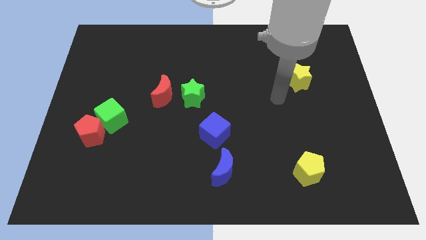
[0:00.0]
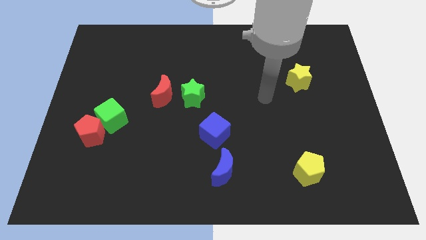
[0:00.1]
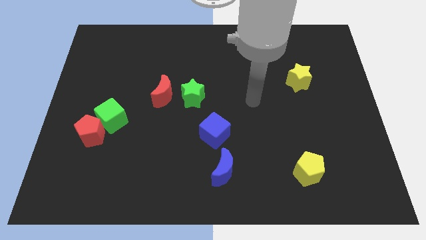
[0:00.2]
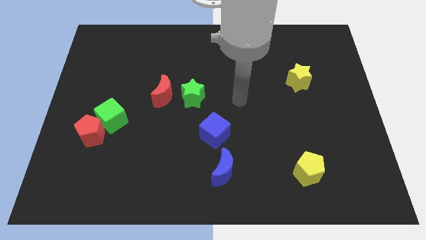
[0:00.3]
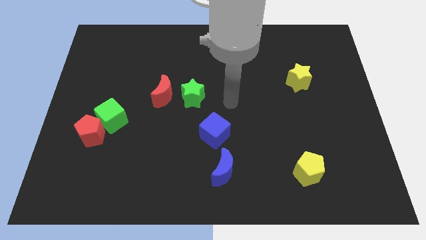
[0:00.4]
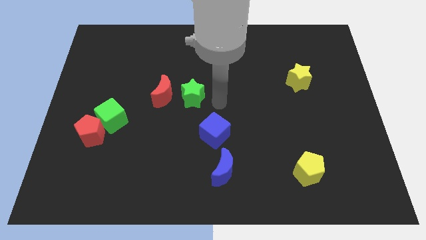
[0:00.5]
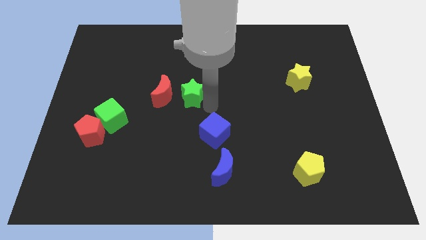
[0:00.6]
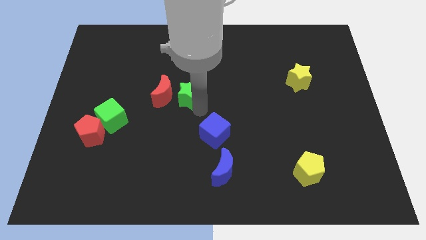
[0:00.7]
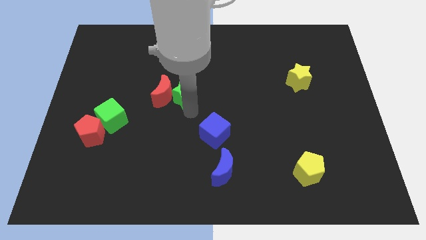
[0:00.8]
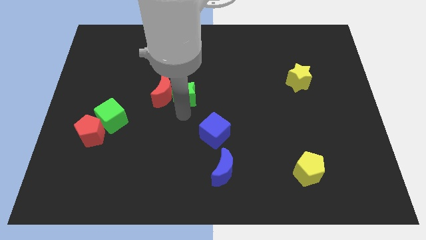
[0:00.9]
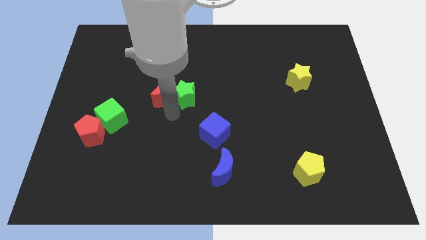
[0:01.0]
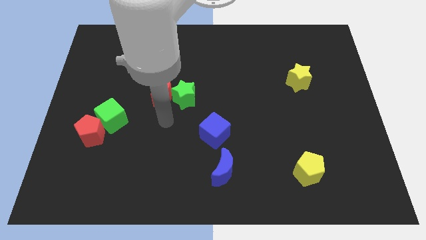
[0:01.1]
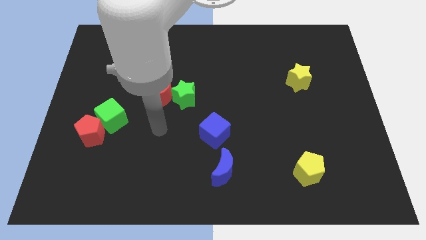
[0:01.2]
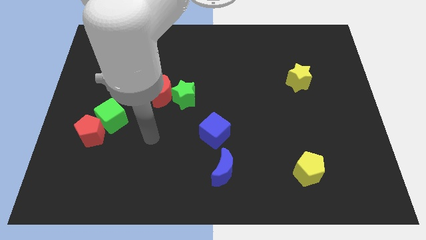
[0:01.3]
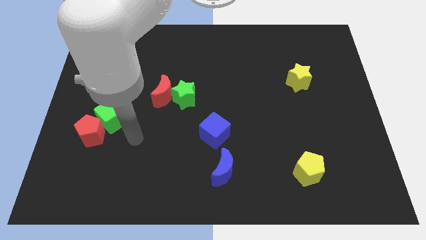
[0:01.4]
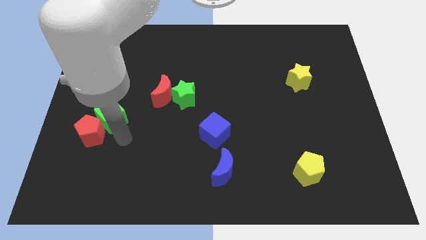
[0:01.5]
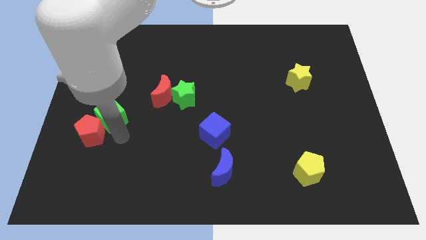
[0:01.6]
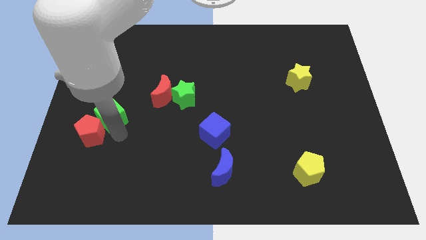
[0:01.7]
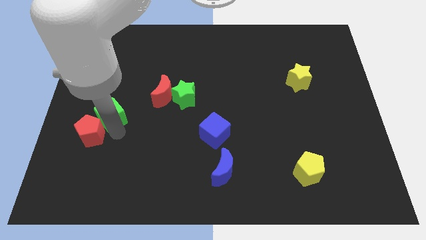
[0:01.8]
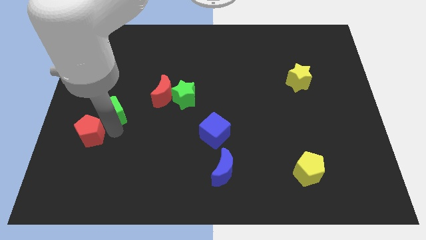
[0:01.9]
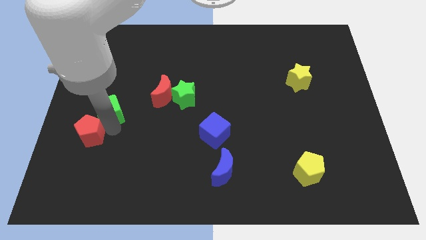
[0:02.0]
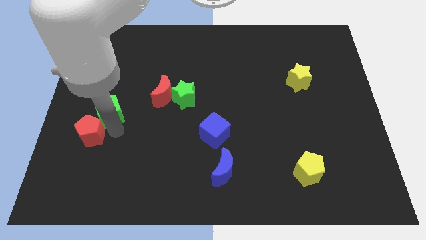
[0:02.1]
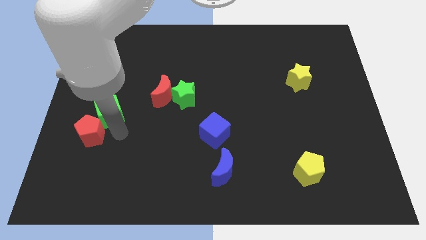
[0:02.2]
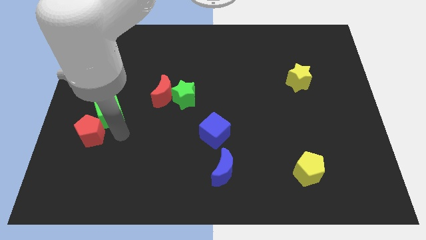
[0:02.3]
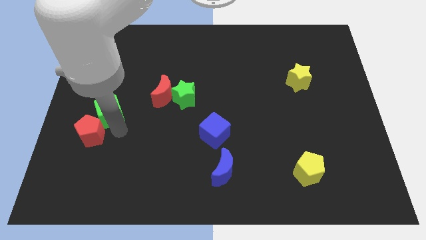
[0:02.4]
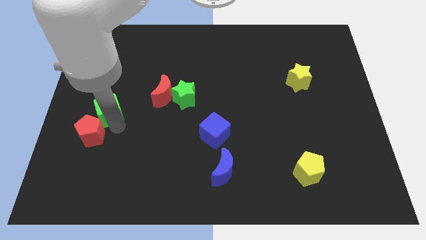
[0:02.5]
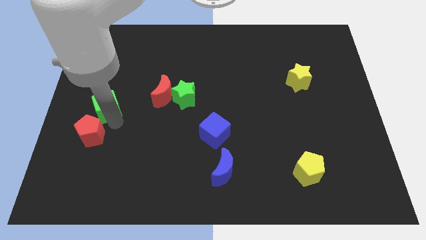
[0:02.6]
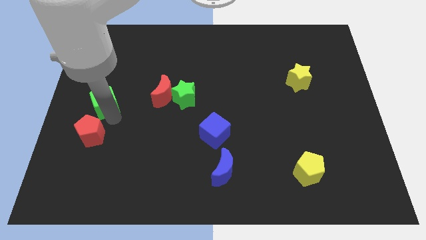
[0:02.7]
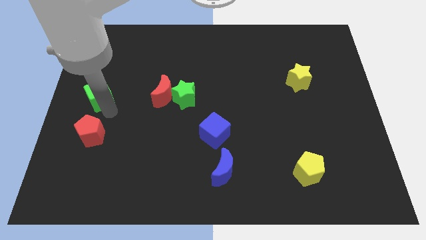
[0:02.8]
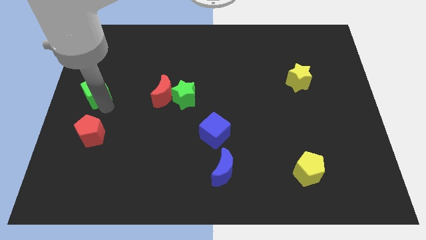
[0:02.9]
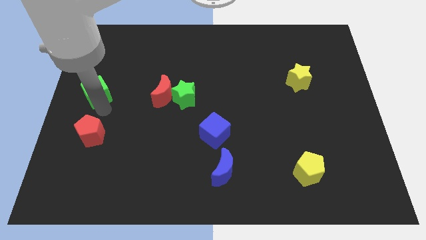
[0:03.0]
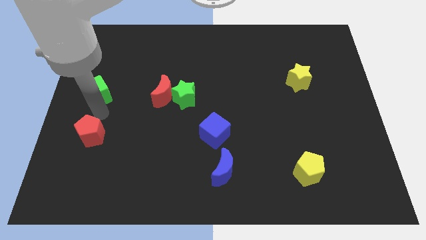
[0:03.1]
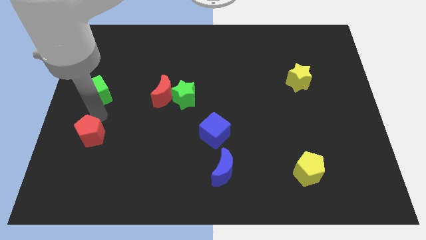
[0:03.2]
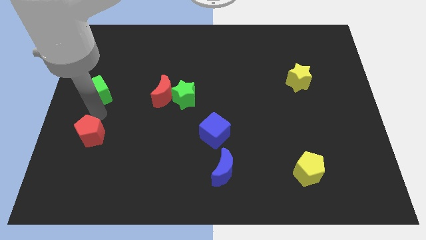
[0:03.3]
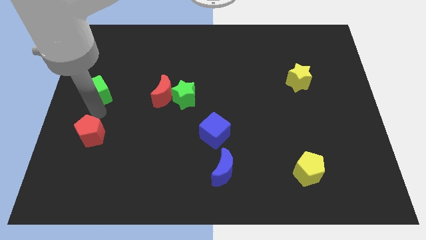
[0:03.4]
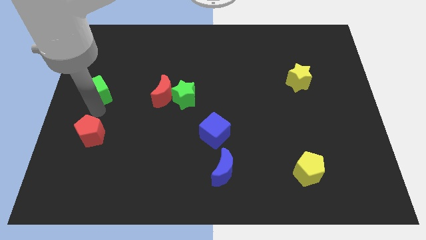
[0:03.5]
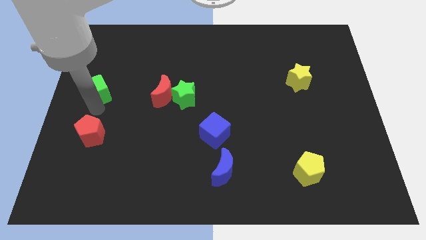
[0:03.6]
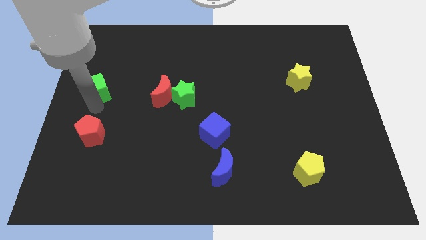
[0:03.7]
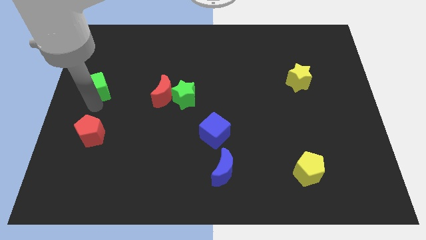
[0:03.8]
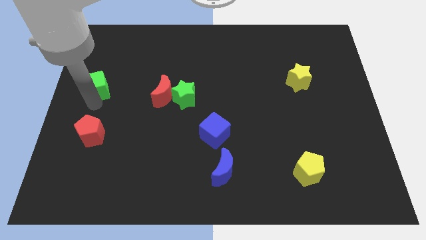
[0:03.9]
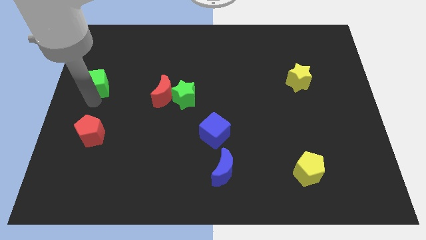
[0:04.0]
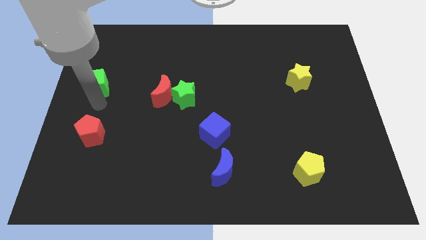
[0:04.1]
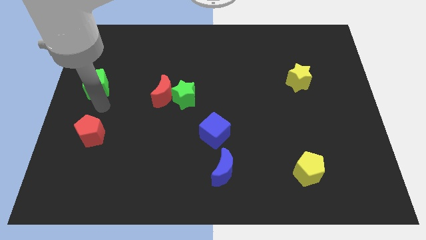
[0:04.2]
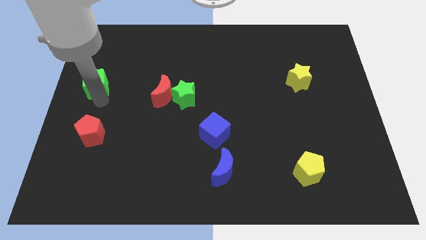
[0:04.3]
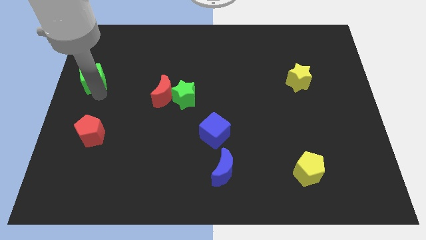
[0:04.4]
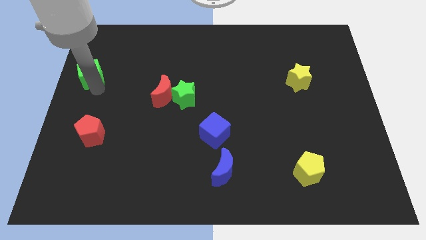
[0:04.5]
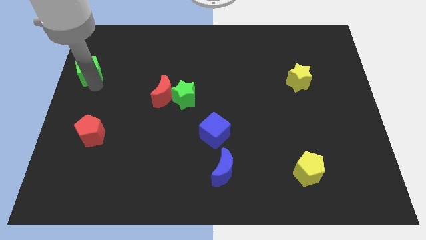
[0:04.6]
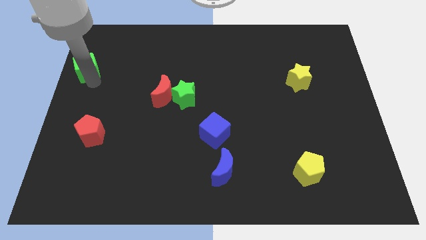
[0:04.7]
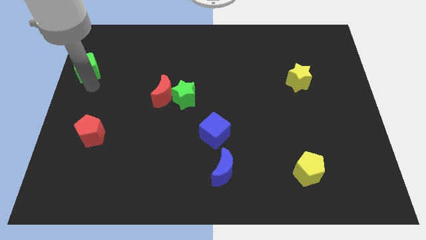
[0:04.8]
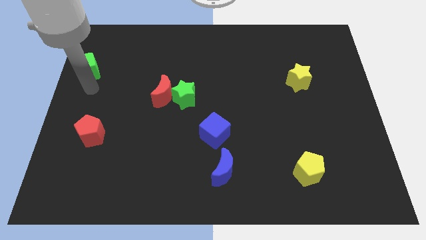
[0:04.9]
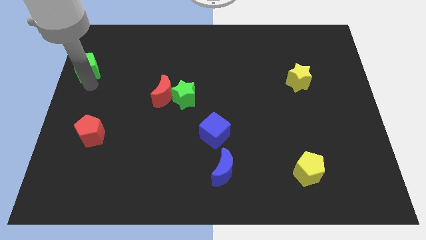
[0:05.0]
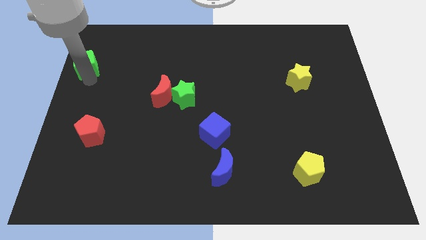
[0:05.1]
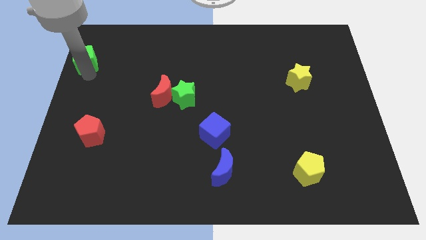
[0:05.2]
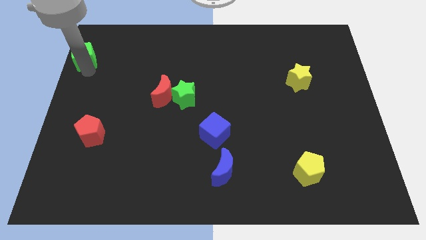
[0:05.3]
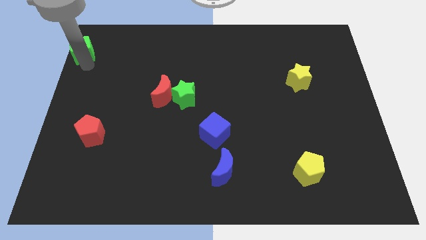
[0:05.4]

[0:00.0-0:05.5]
put the green cube to the top left corner
